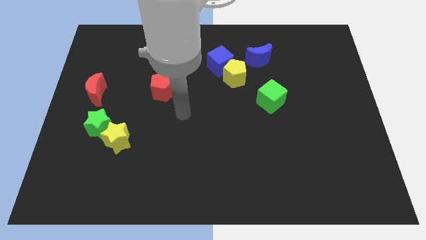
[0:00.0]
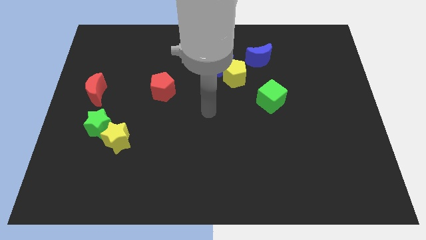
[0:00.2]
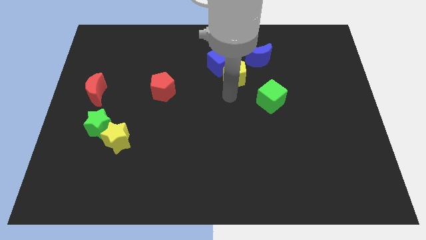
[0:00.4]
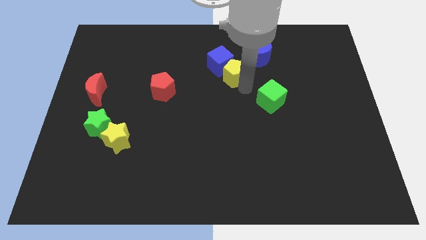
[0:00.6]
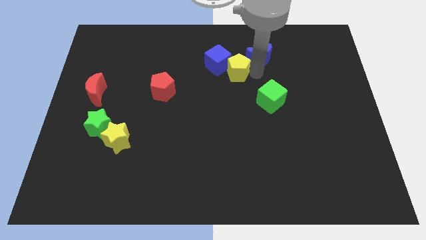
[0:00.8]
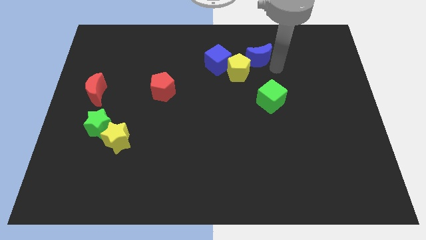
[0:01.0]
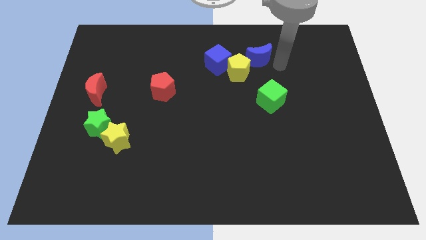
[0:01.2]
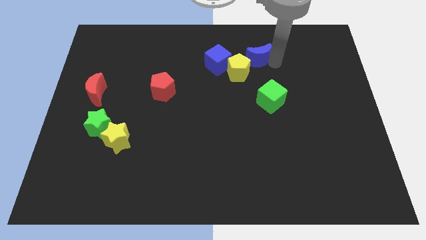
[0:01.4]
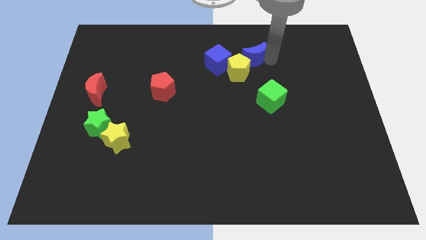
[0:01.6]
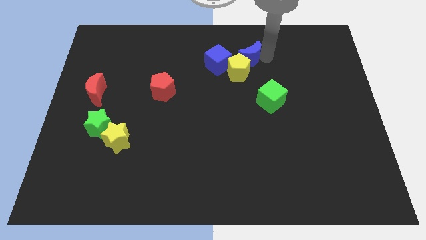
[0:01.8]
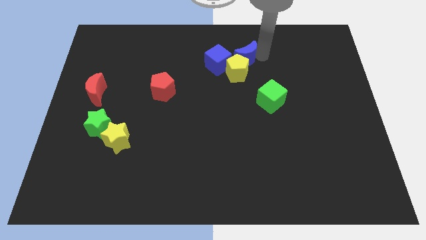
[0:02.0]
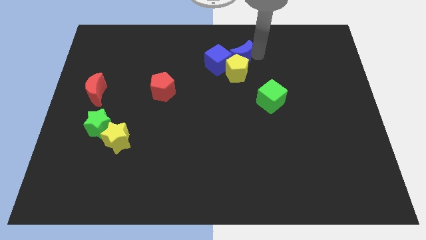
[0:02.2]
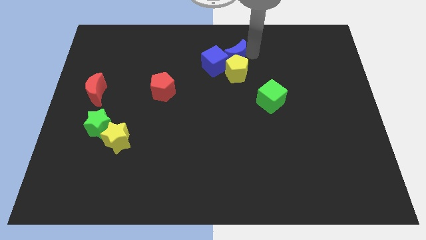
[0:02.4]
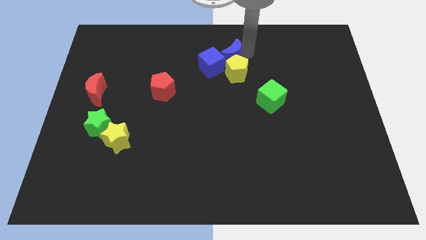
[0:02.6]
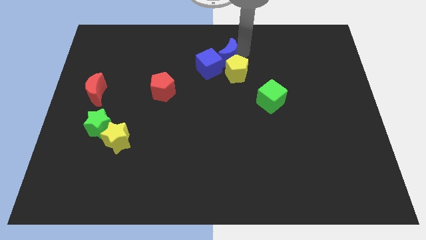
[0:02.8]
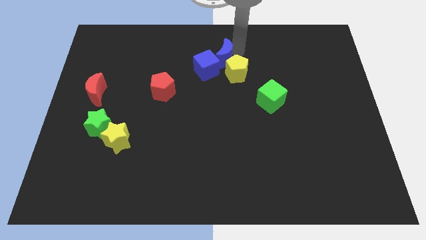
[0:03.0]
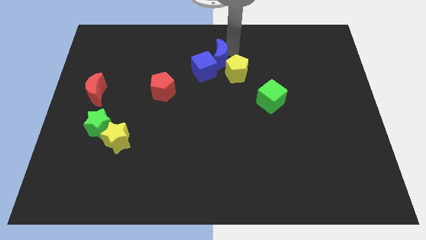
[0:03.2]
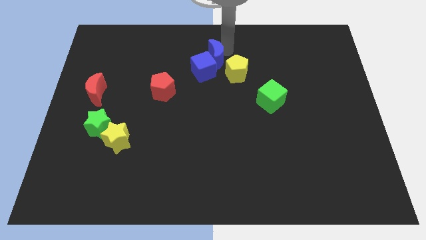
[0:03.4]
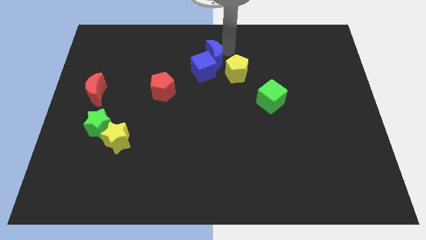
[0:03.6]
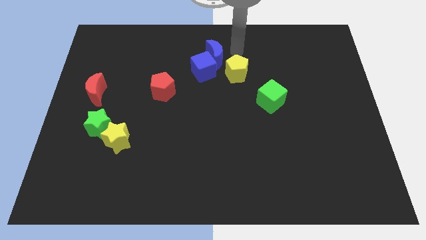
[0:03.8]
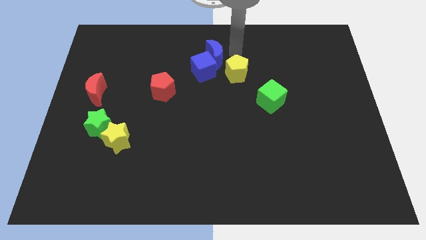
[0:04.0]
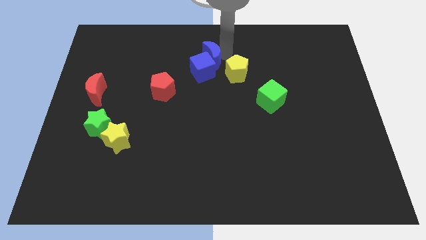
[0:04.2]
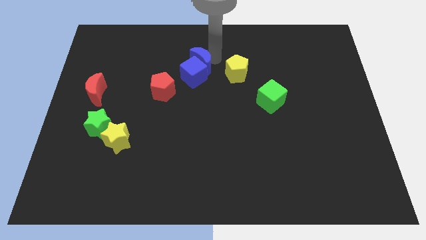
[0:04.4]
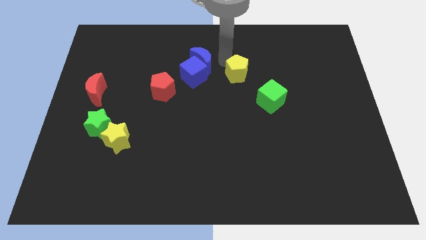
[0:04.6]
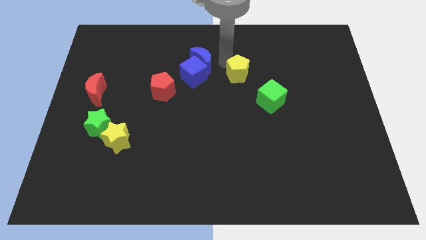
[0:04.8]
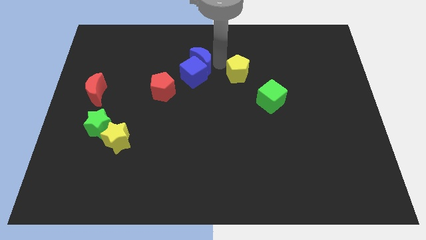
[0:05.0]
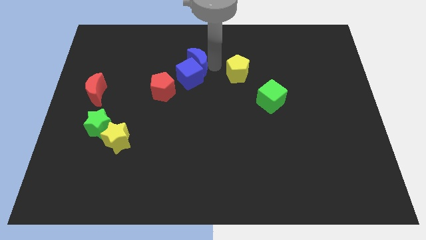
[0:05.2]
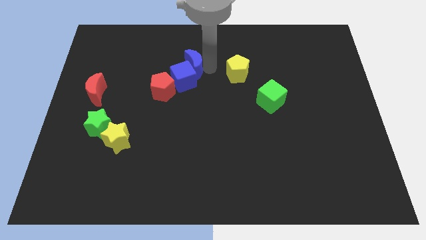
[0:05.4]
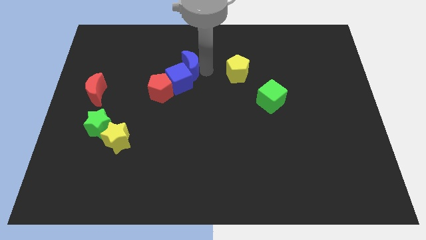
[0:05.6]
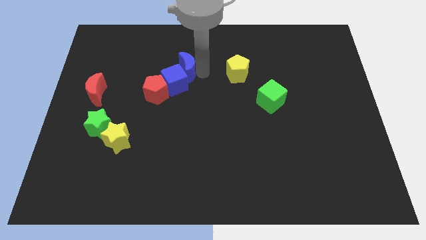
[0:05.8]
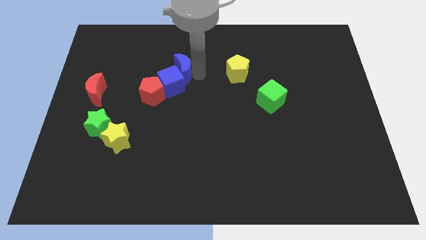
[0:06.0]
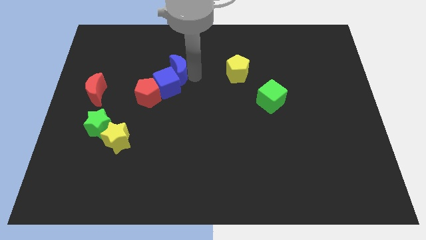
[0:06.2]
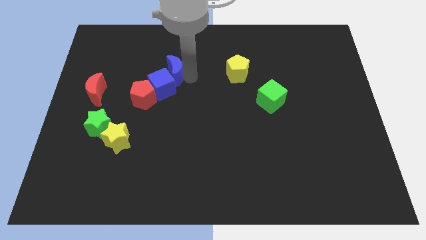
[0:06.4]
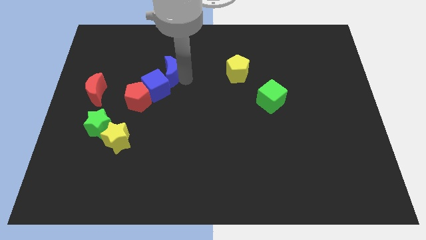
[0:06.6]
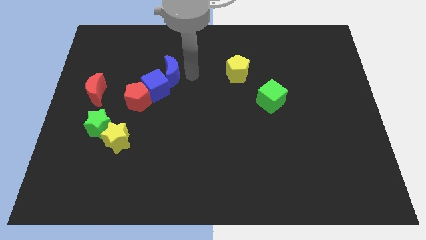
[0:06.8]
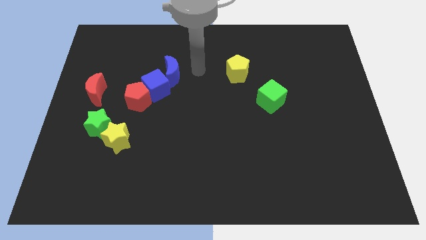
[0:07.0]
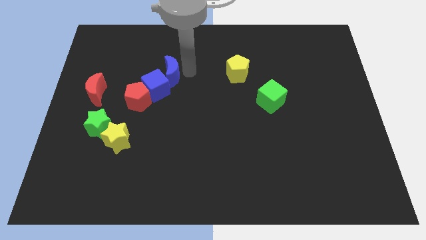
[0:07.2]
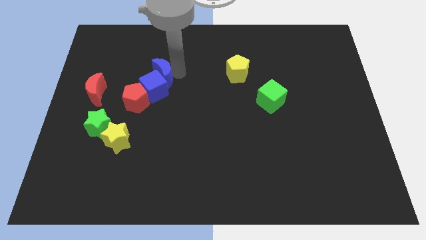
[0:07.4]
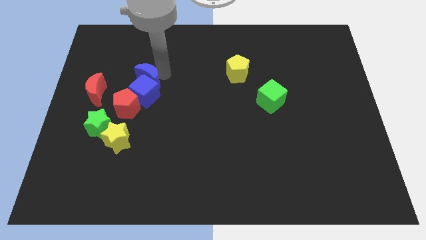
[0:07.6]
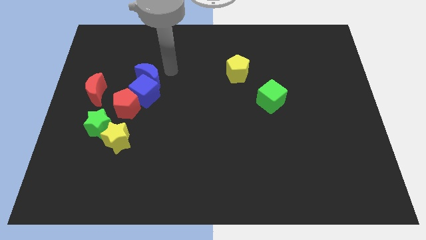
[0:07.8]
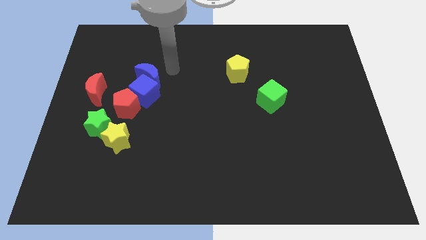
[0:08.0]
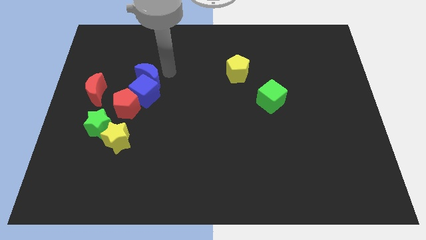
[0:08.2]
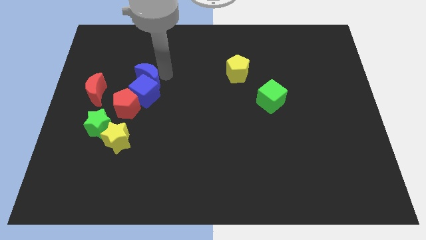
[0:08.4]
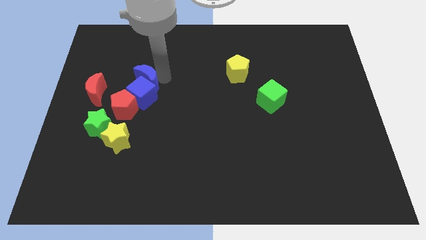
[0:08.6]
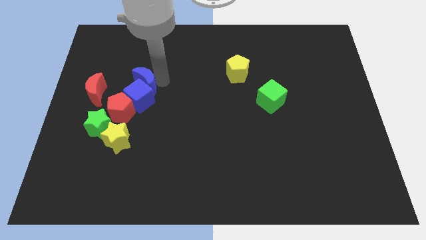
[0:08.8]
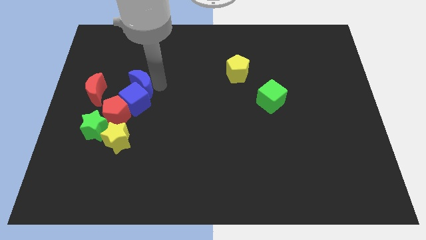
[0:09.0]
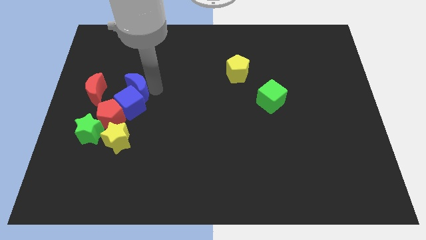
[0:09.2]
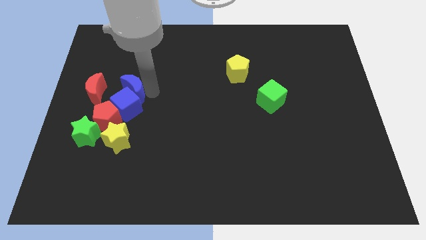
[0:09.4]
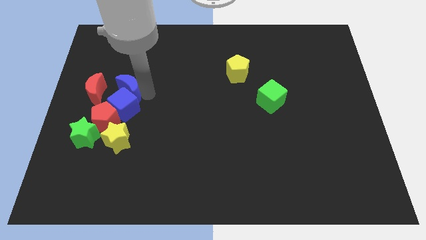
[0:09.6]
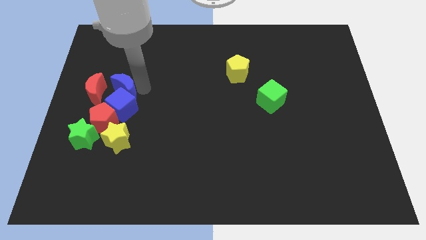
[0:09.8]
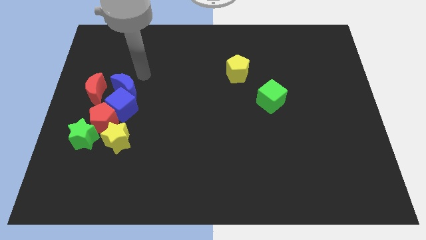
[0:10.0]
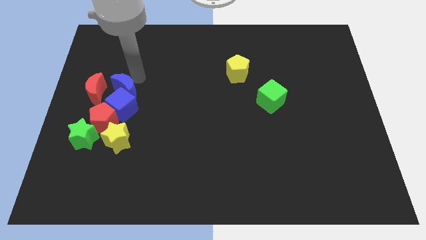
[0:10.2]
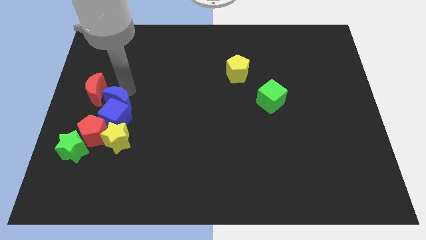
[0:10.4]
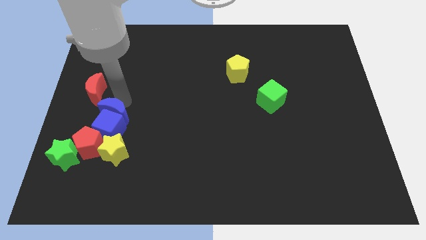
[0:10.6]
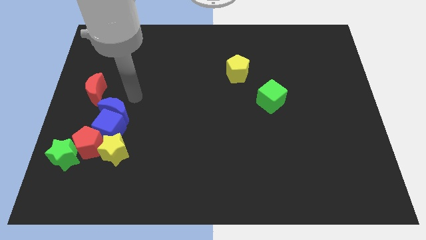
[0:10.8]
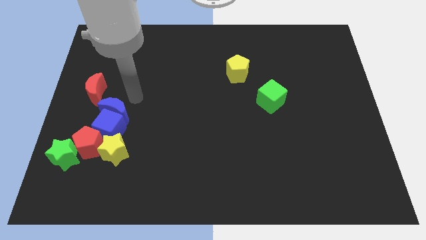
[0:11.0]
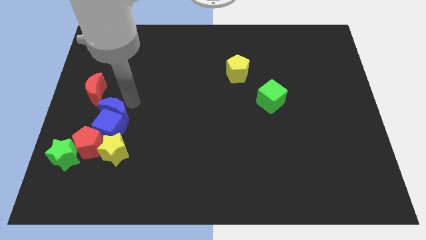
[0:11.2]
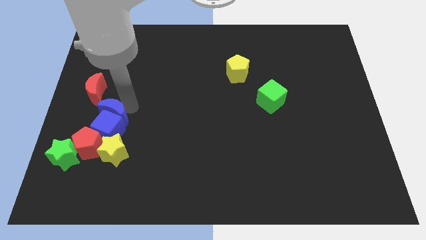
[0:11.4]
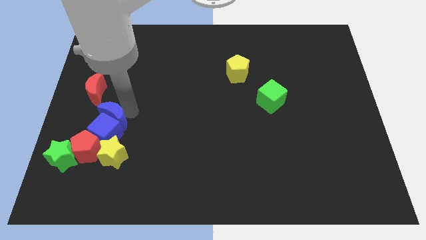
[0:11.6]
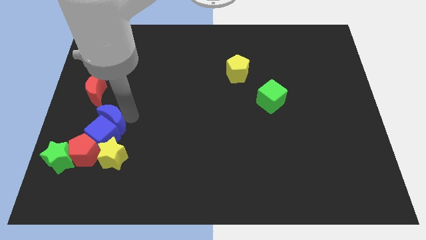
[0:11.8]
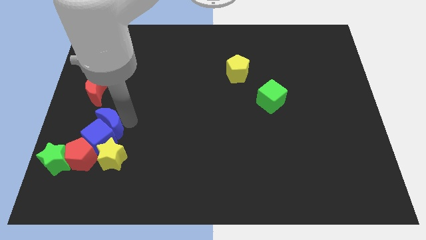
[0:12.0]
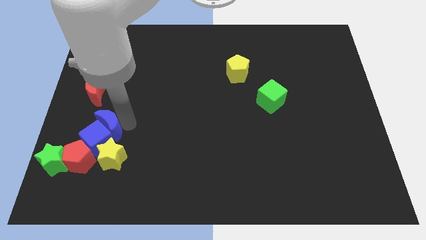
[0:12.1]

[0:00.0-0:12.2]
slide the blue moon to the top left side of the yellow star

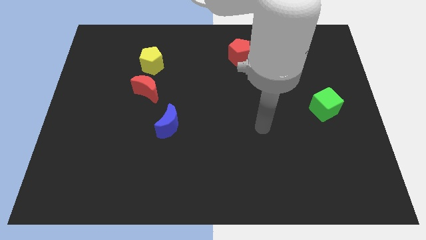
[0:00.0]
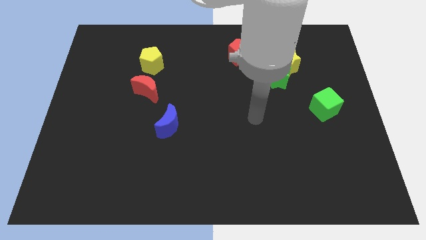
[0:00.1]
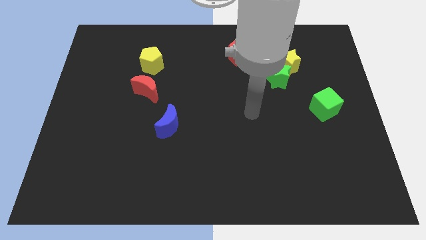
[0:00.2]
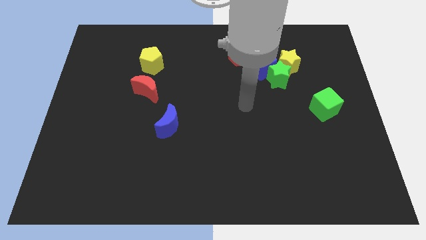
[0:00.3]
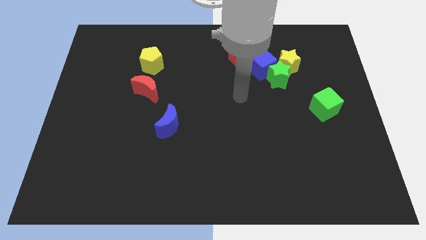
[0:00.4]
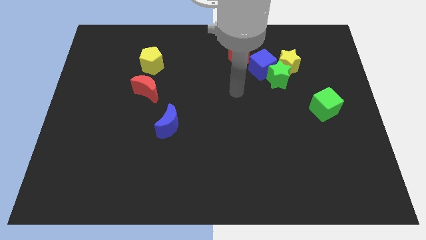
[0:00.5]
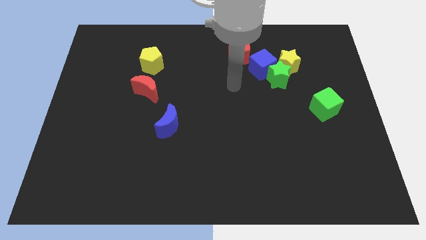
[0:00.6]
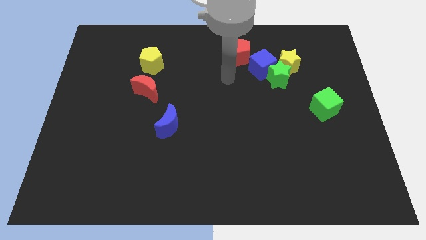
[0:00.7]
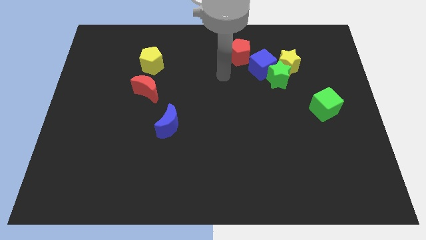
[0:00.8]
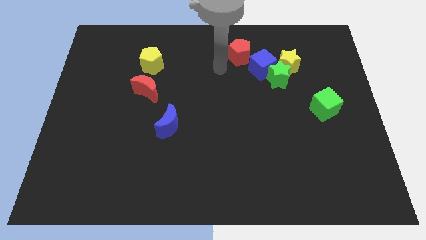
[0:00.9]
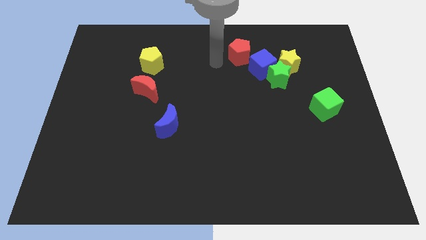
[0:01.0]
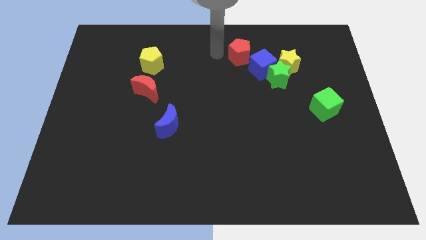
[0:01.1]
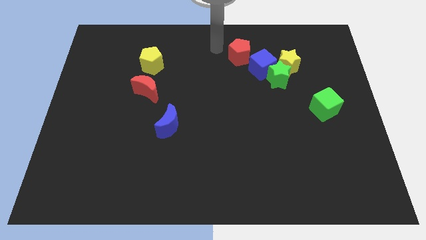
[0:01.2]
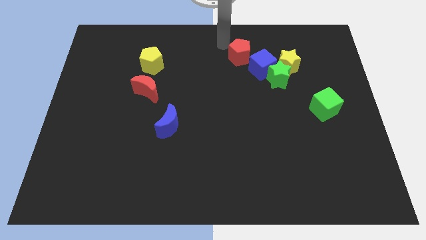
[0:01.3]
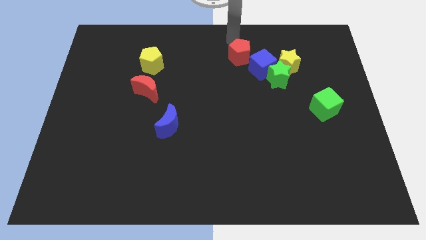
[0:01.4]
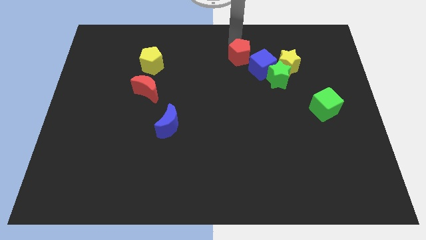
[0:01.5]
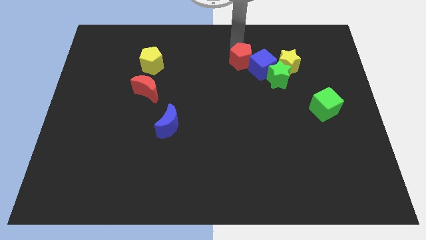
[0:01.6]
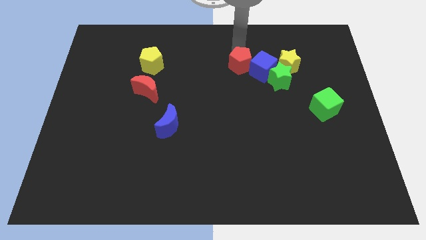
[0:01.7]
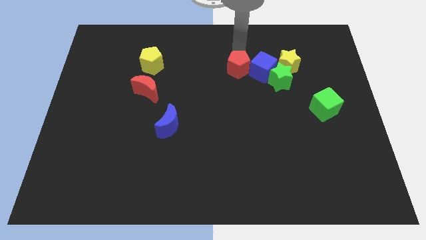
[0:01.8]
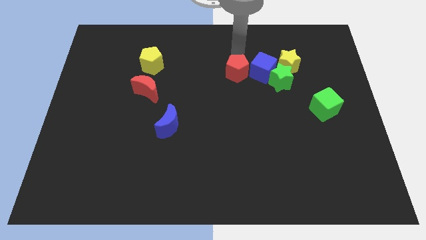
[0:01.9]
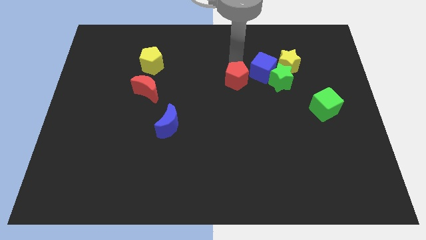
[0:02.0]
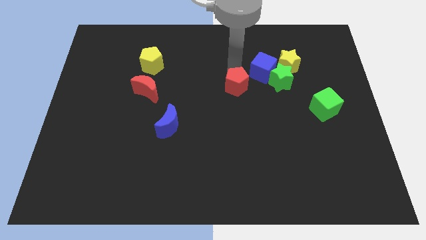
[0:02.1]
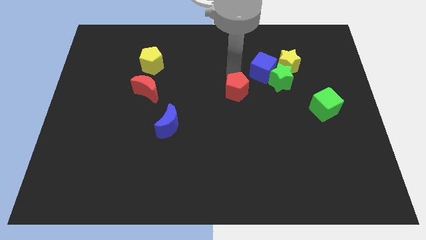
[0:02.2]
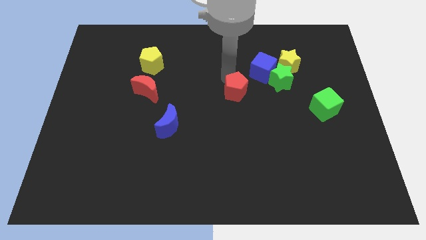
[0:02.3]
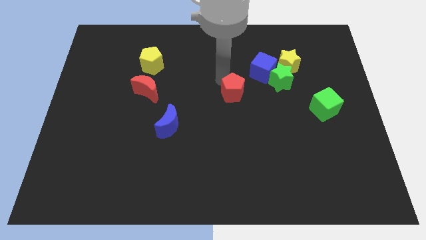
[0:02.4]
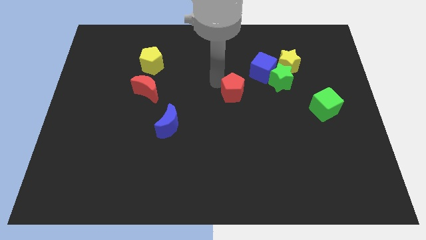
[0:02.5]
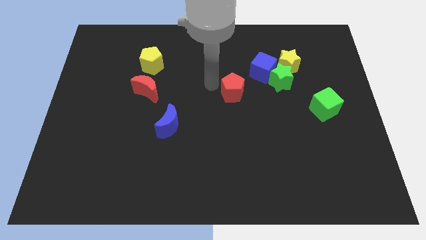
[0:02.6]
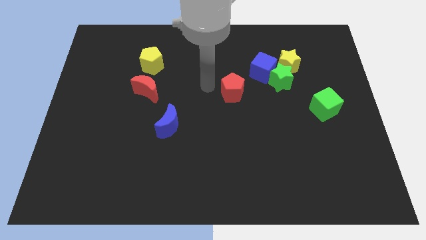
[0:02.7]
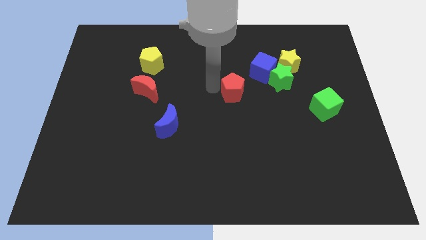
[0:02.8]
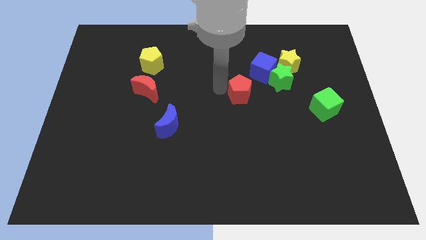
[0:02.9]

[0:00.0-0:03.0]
push the red pentagon diagonally down and to the left of the green star
